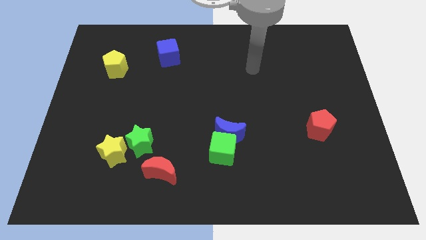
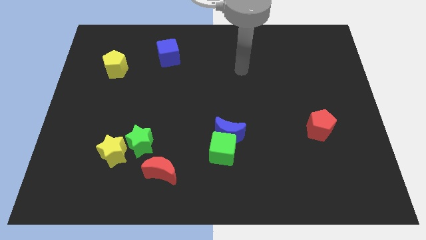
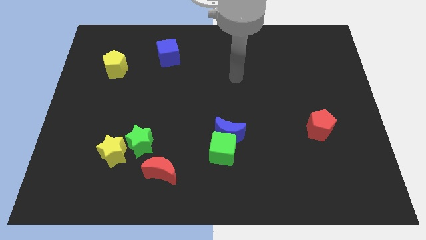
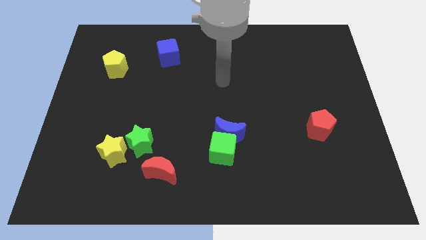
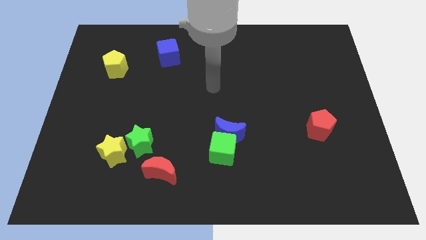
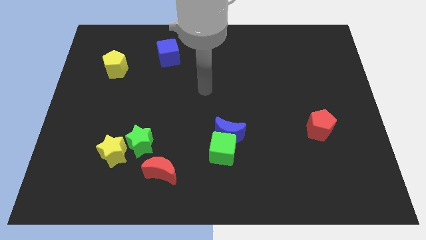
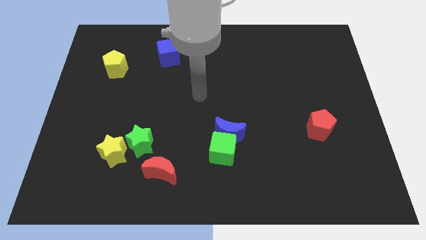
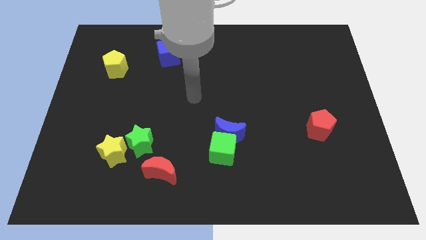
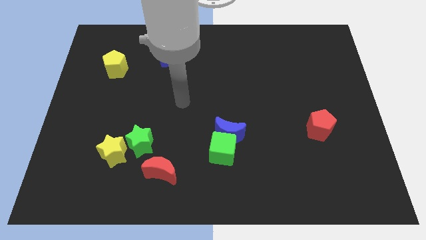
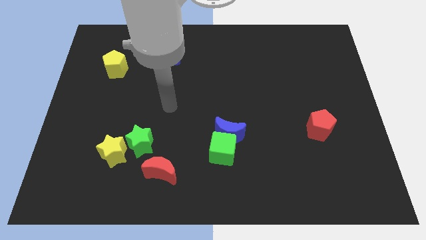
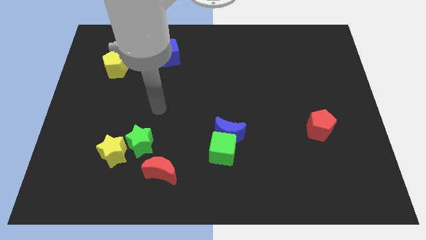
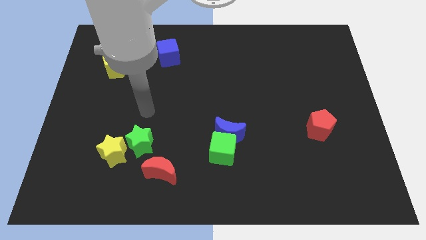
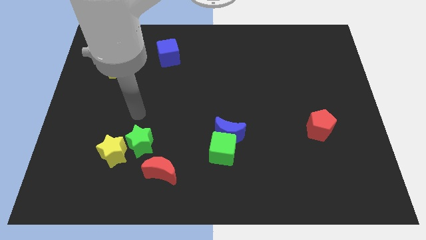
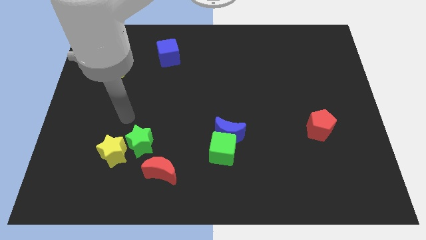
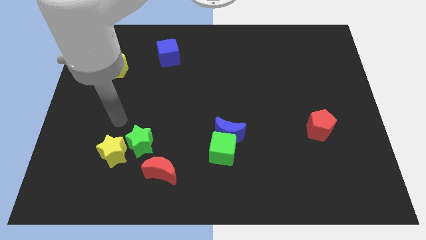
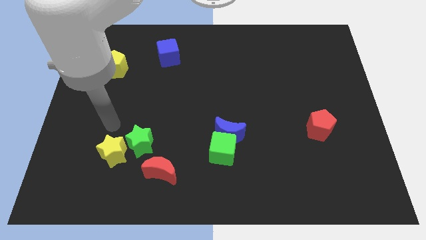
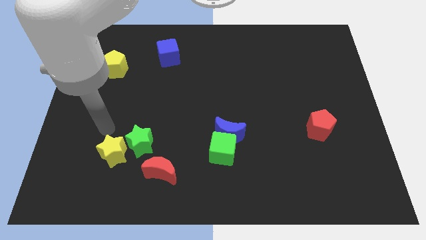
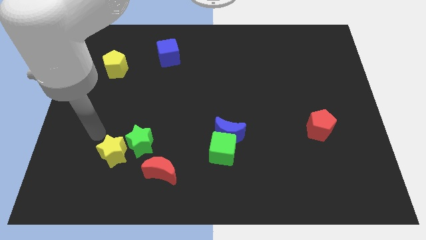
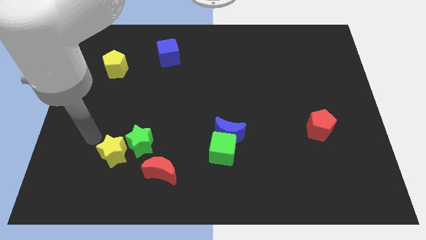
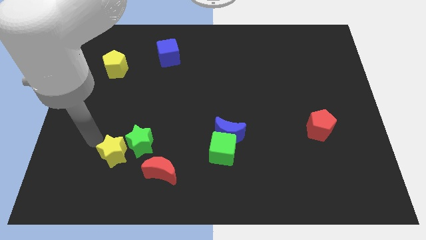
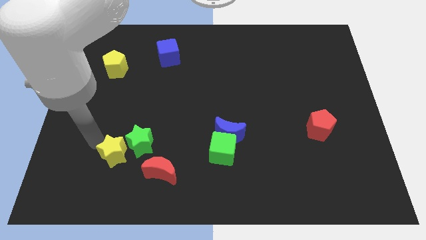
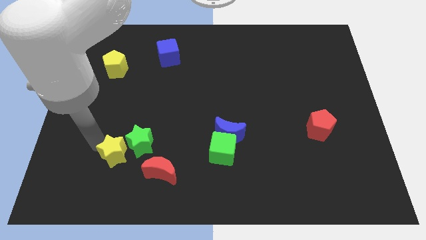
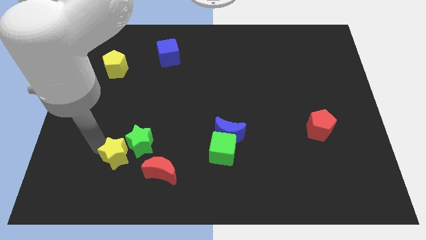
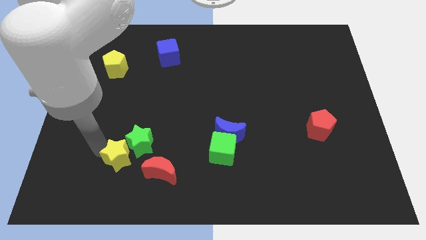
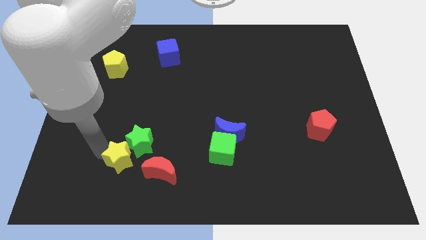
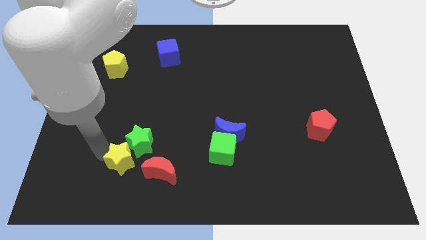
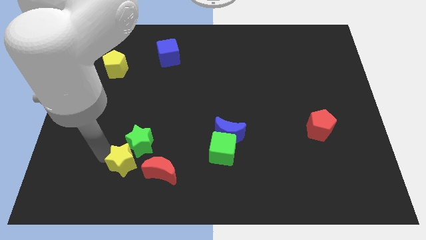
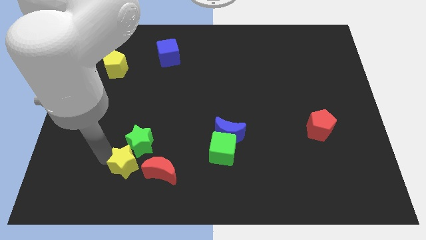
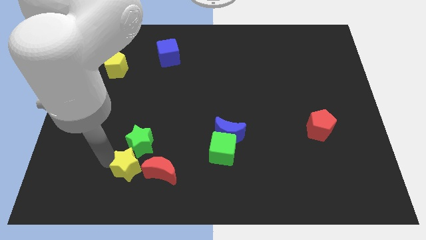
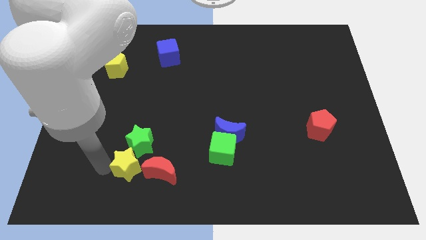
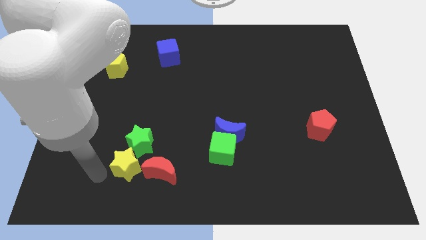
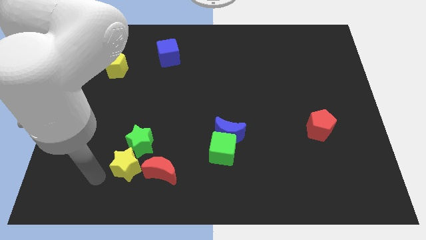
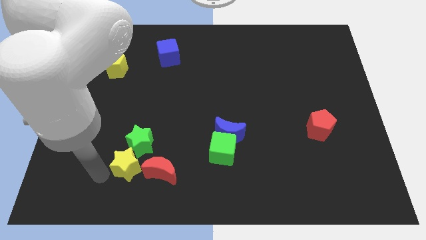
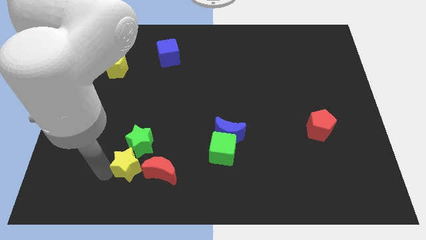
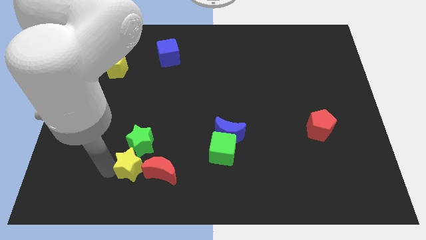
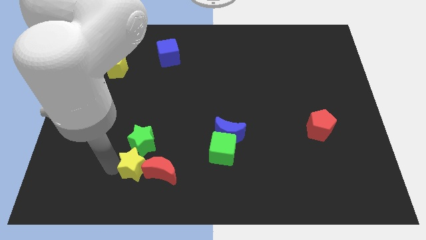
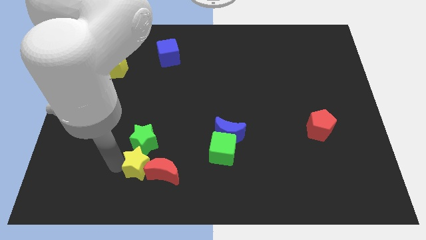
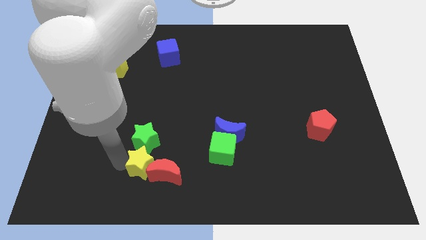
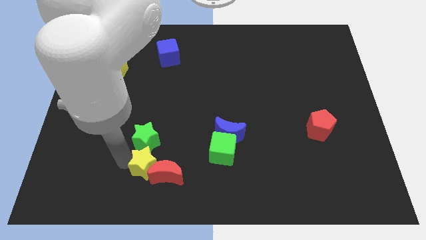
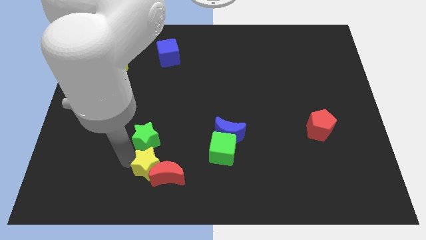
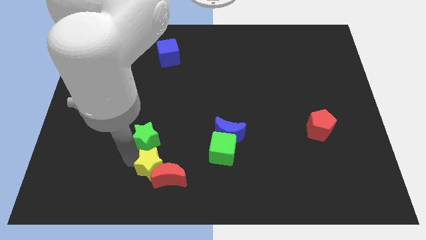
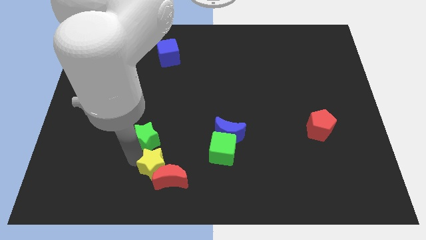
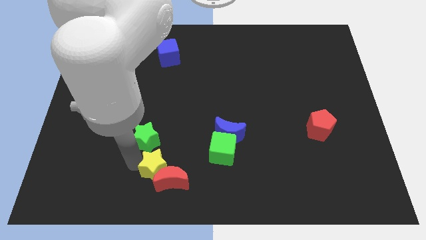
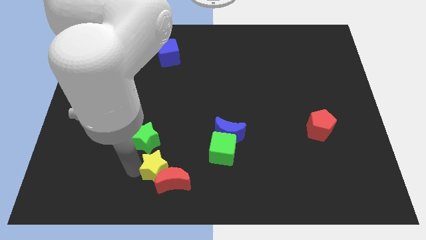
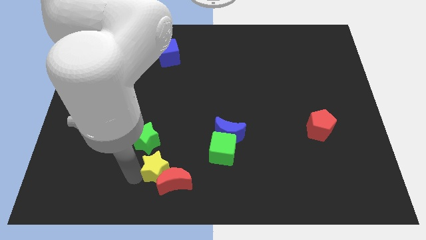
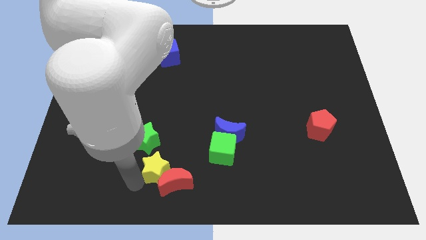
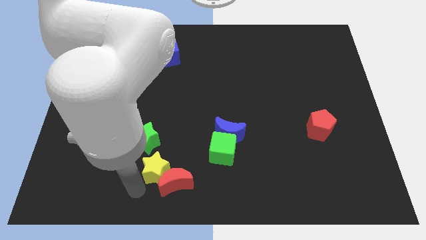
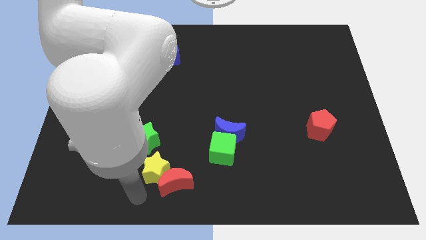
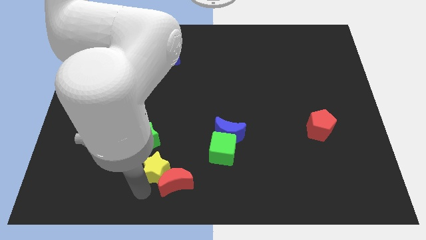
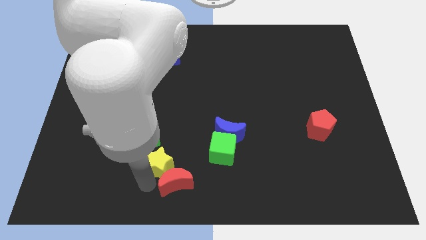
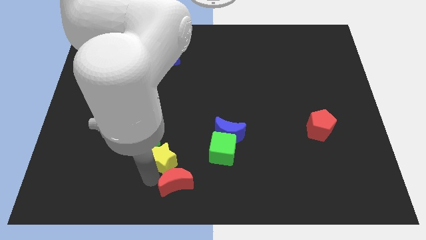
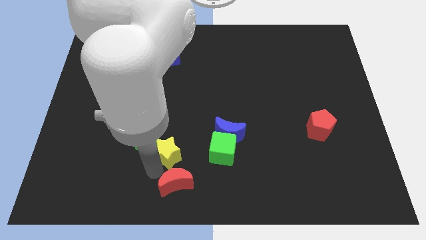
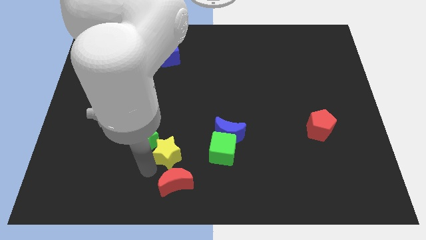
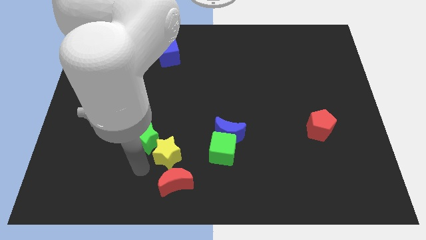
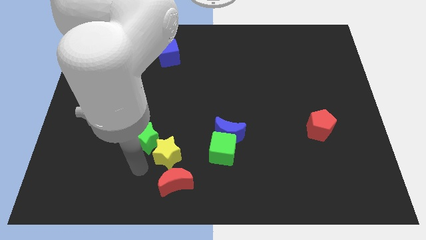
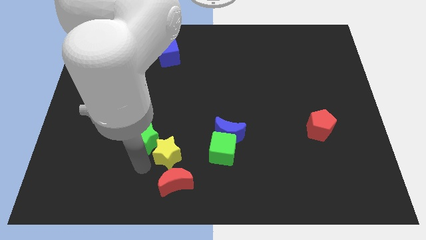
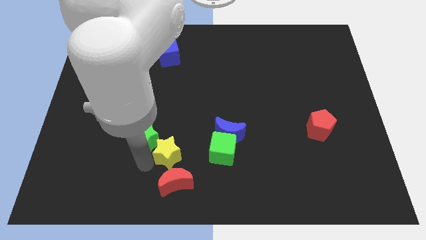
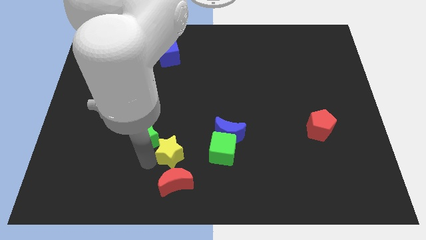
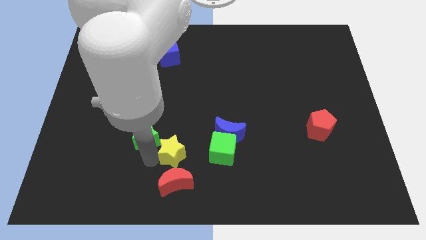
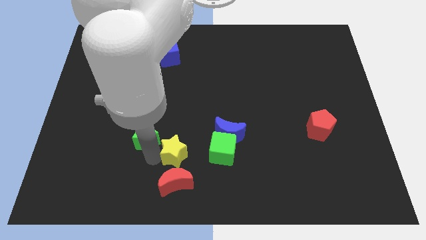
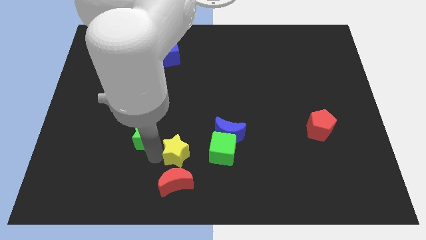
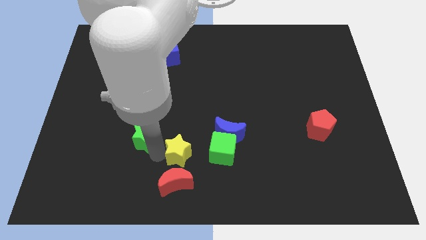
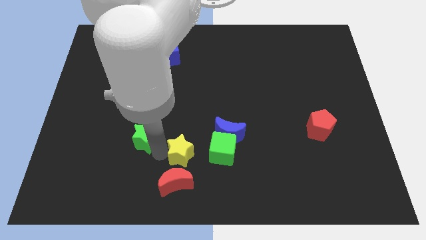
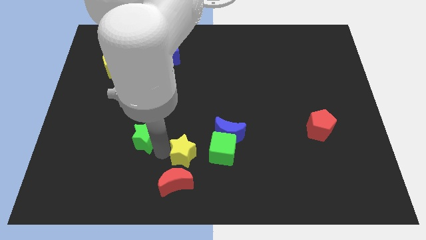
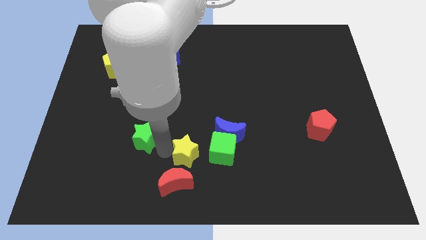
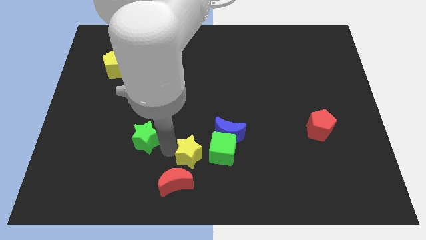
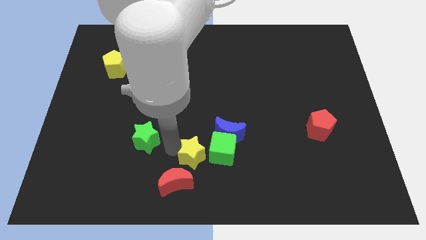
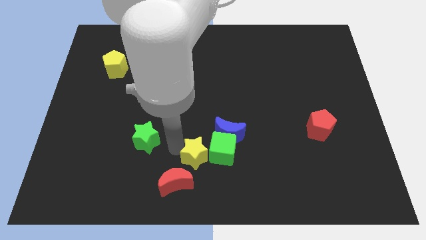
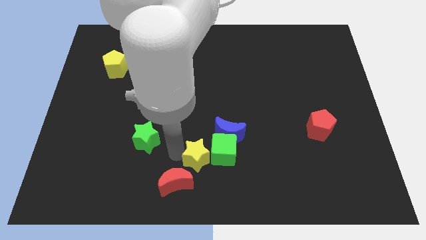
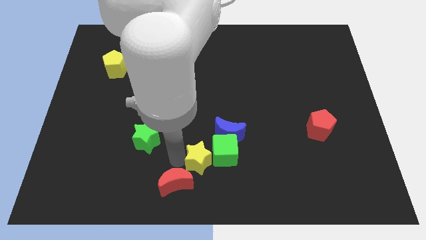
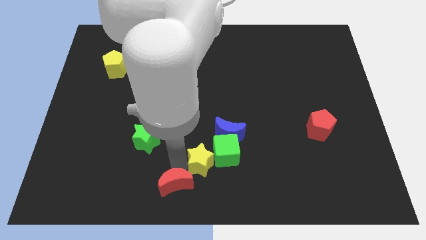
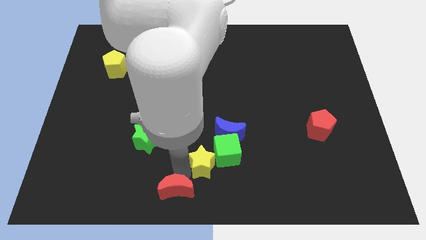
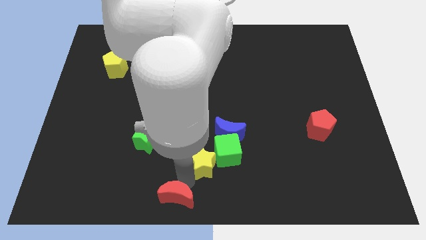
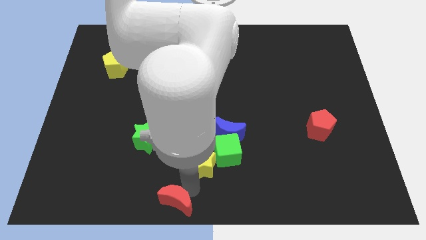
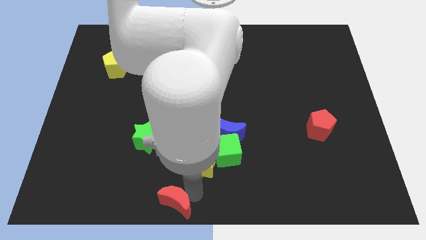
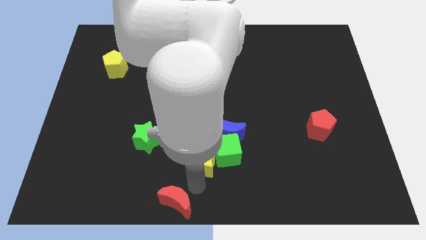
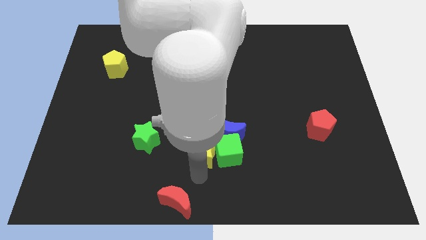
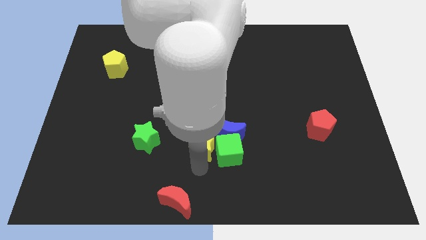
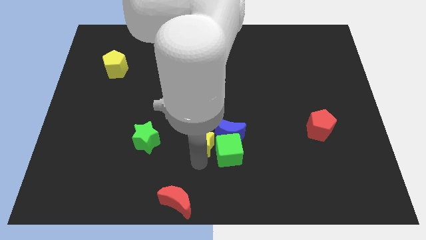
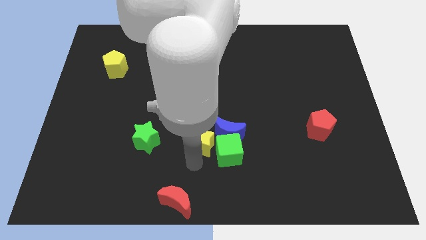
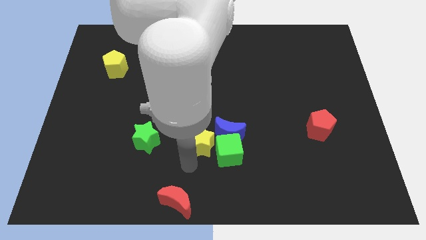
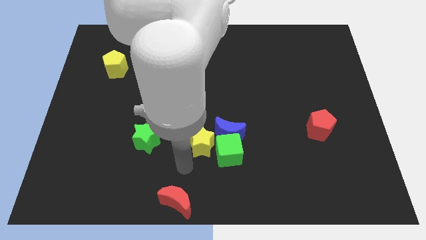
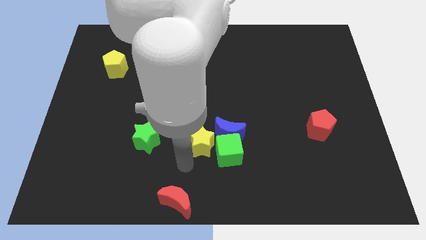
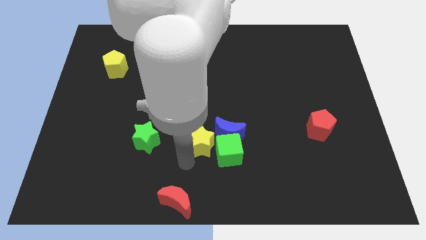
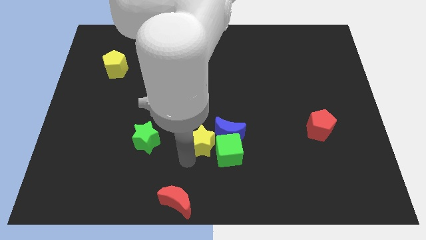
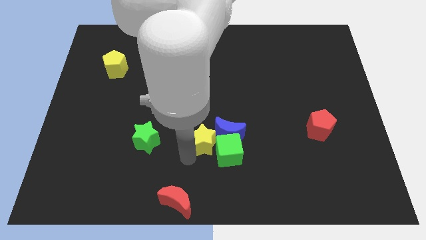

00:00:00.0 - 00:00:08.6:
move the yellow star to the blue moon
